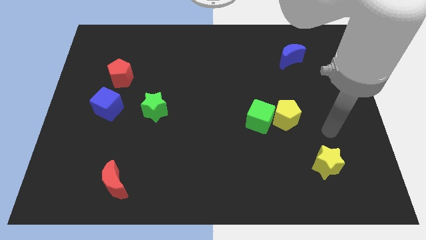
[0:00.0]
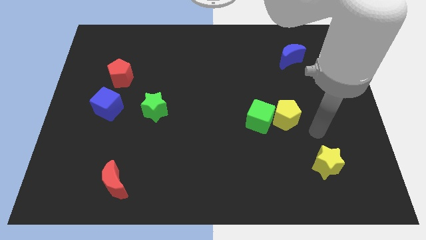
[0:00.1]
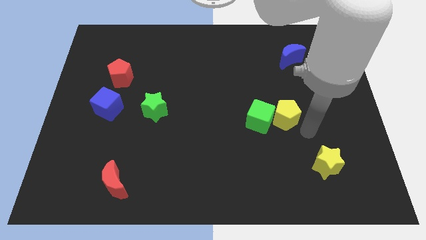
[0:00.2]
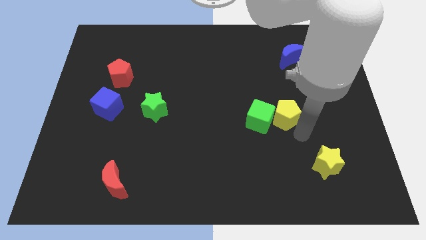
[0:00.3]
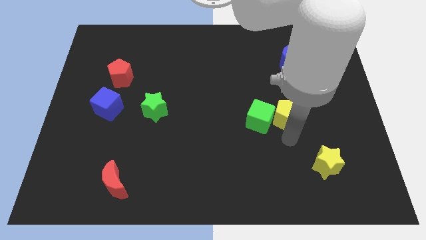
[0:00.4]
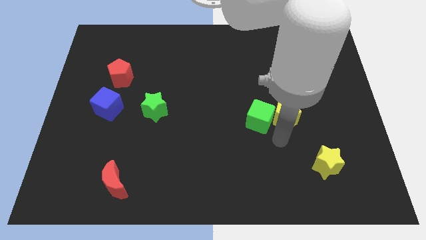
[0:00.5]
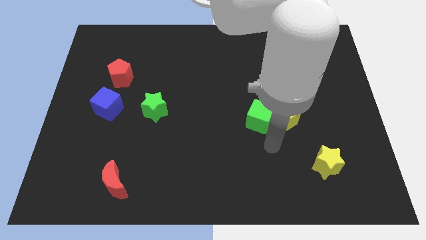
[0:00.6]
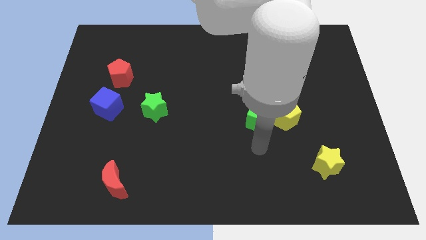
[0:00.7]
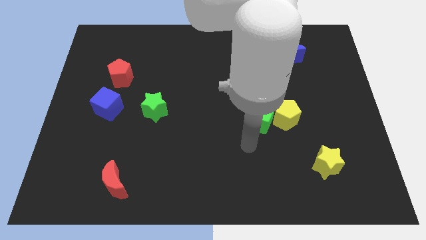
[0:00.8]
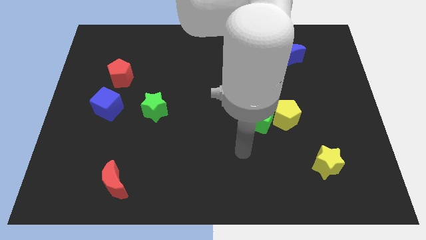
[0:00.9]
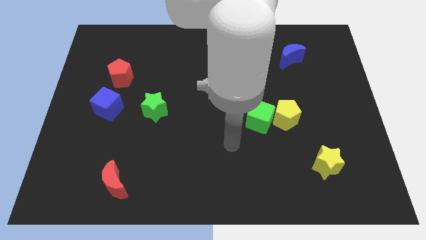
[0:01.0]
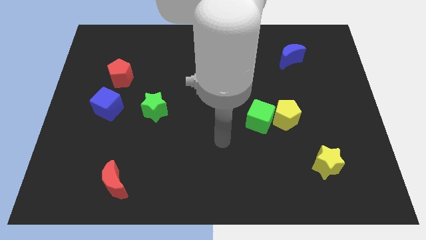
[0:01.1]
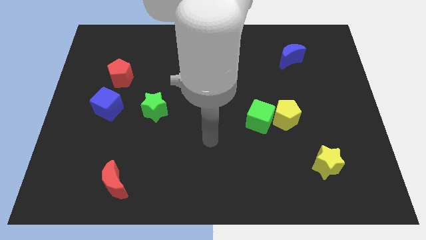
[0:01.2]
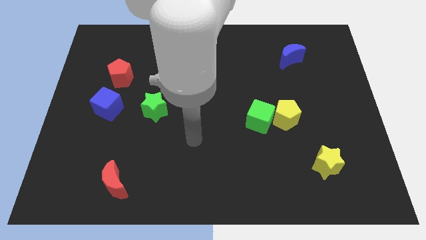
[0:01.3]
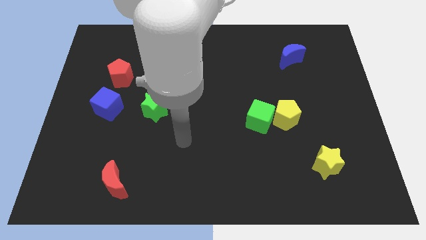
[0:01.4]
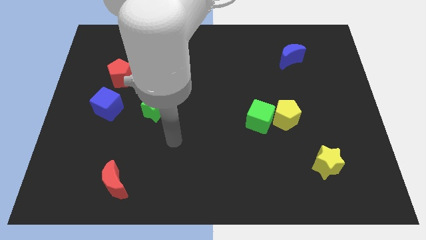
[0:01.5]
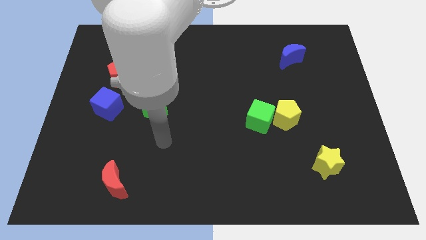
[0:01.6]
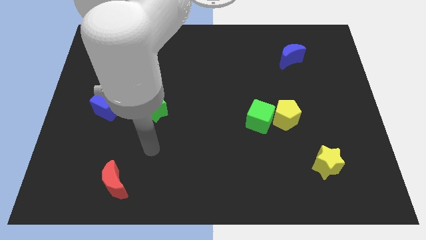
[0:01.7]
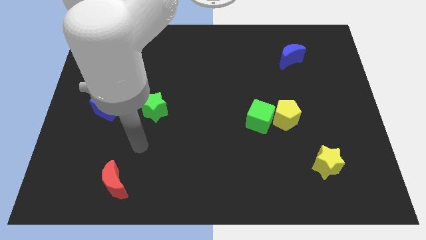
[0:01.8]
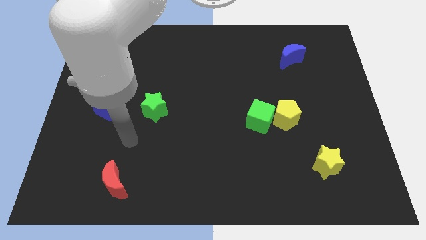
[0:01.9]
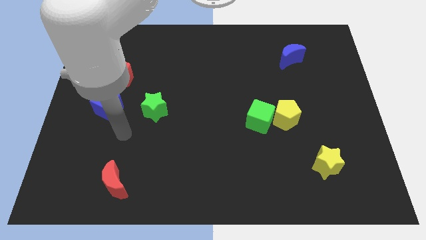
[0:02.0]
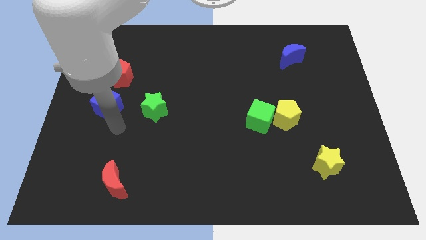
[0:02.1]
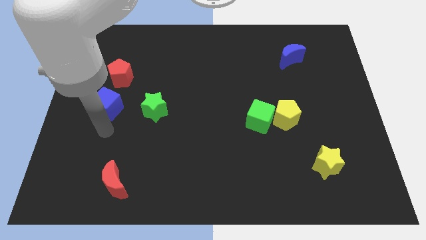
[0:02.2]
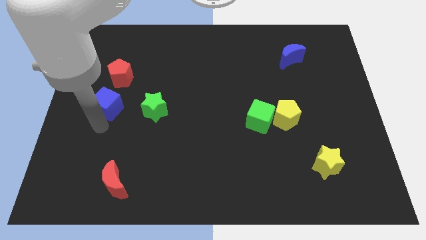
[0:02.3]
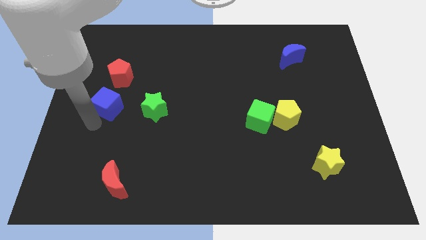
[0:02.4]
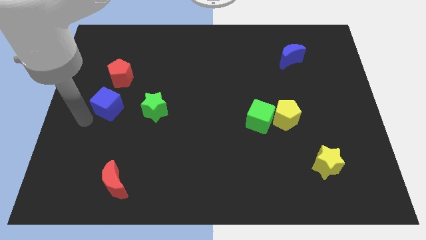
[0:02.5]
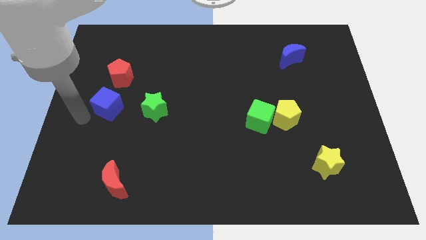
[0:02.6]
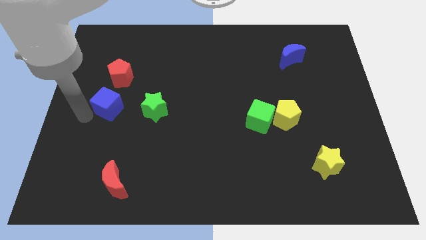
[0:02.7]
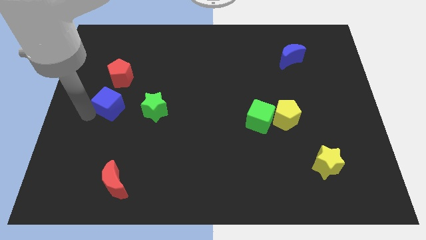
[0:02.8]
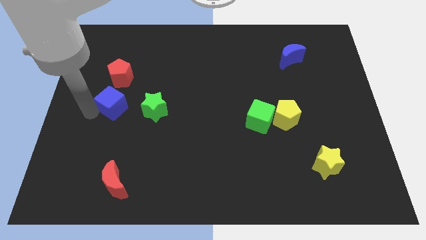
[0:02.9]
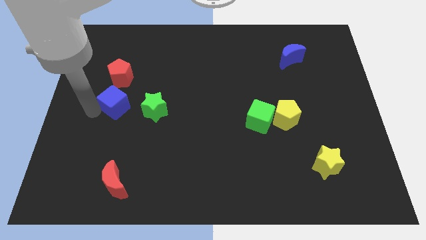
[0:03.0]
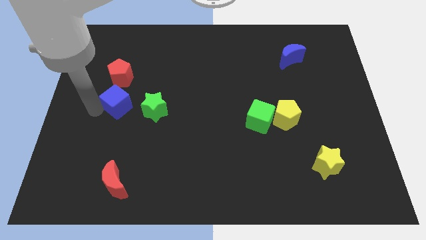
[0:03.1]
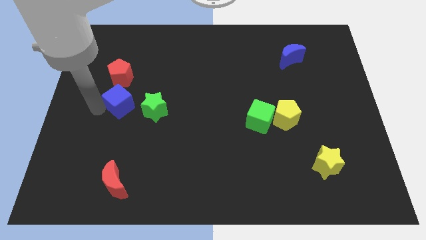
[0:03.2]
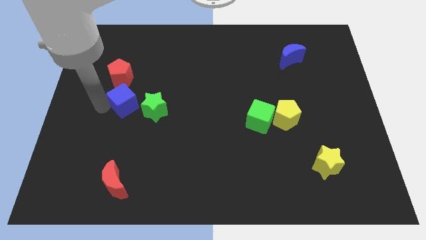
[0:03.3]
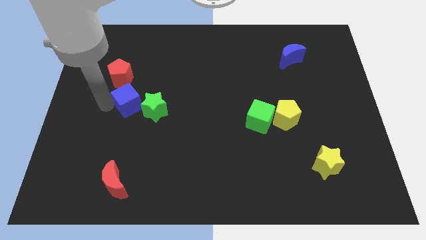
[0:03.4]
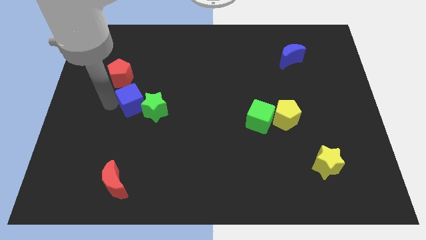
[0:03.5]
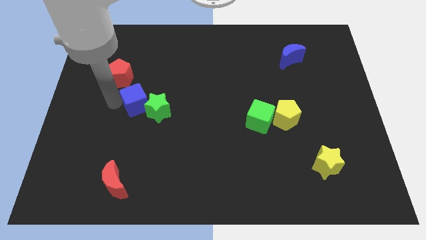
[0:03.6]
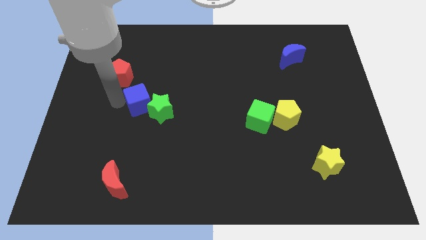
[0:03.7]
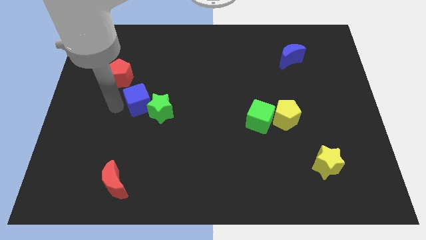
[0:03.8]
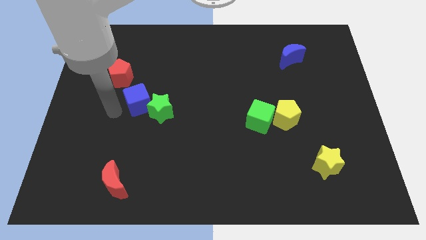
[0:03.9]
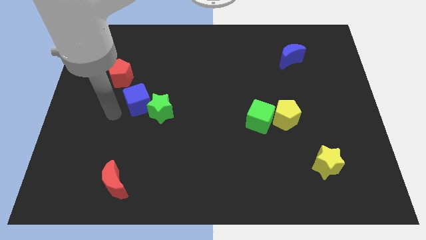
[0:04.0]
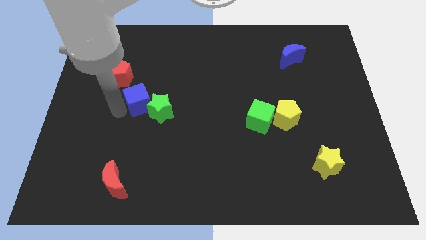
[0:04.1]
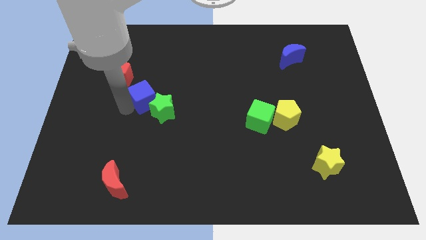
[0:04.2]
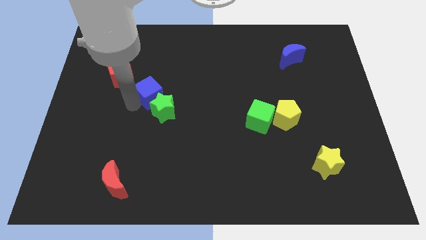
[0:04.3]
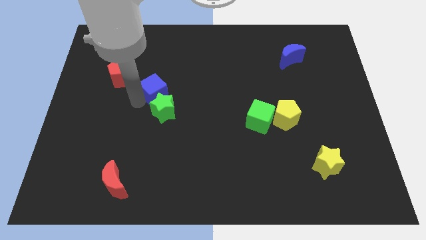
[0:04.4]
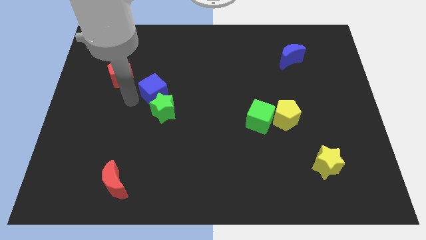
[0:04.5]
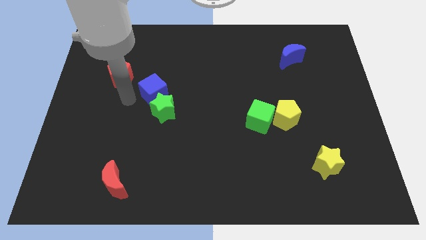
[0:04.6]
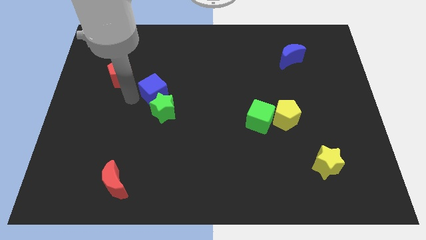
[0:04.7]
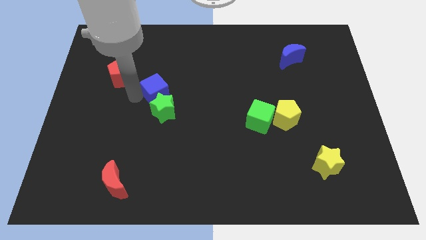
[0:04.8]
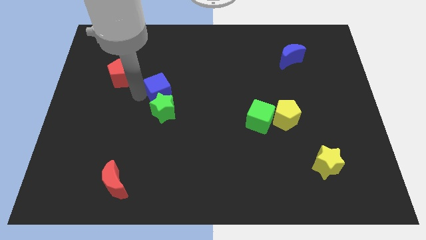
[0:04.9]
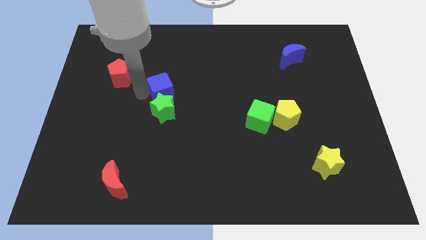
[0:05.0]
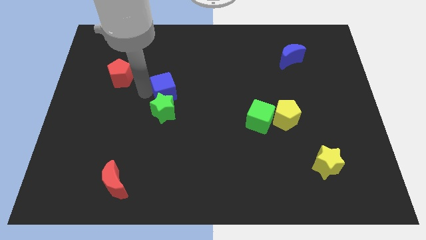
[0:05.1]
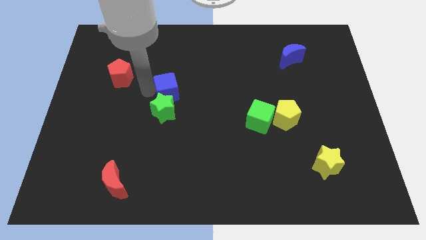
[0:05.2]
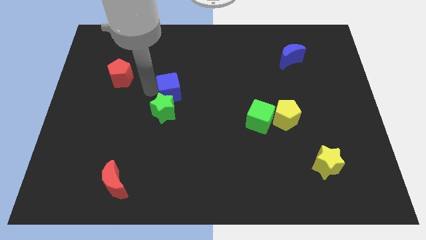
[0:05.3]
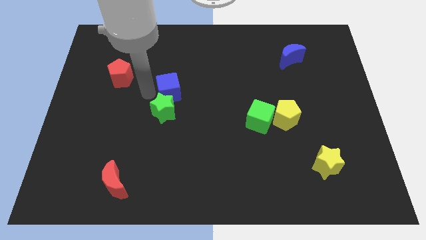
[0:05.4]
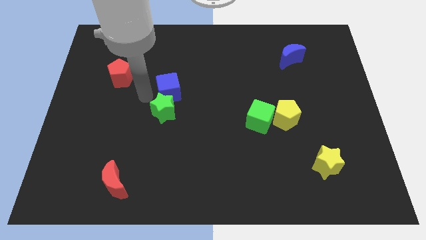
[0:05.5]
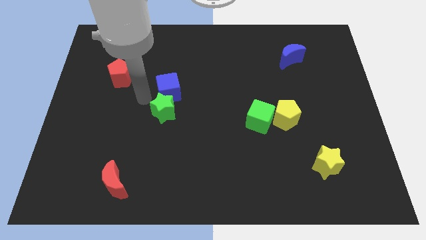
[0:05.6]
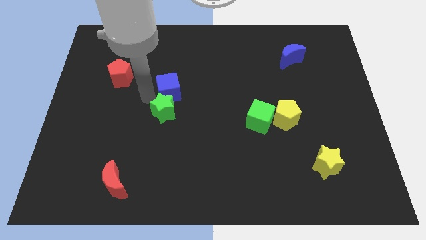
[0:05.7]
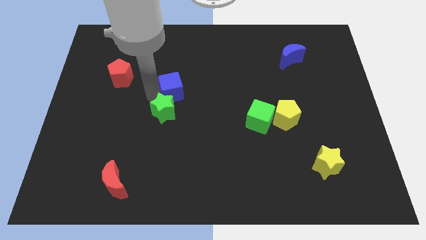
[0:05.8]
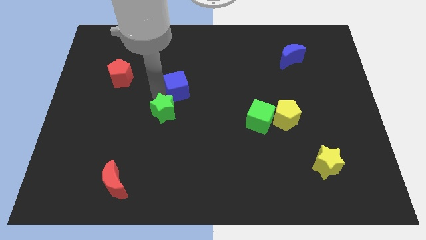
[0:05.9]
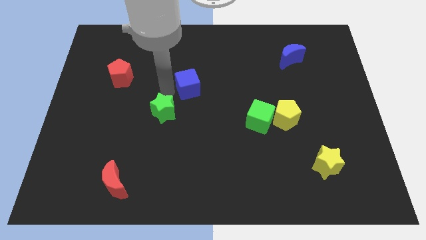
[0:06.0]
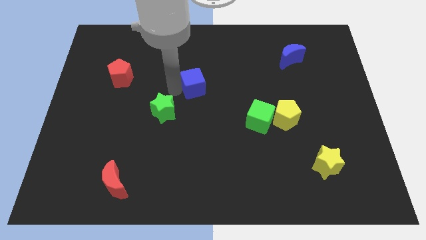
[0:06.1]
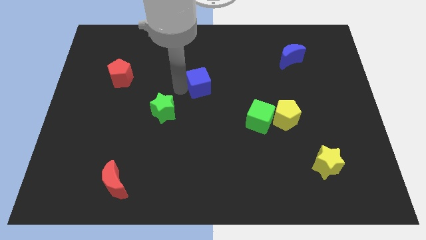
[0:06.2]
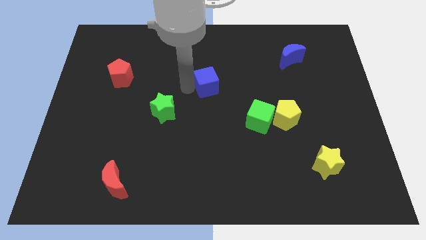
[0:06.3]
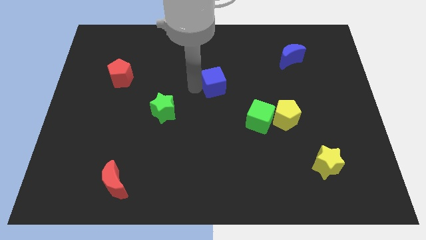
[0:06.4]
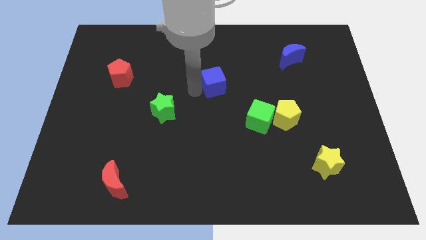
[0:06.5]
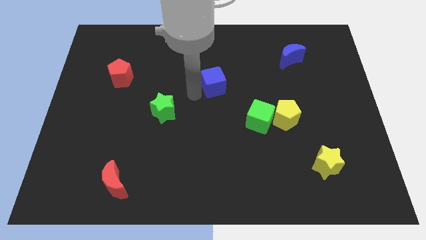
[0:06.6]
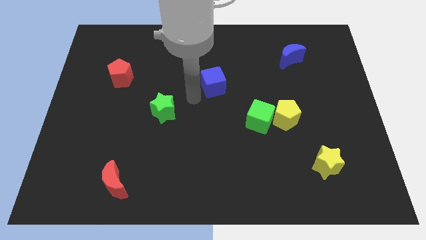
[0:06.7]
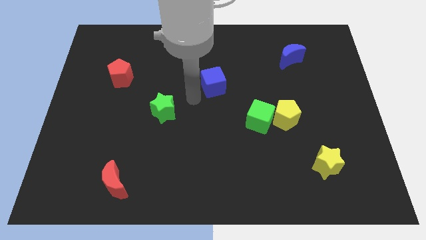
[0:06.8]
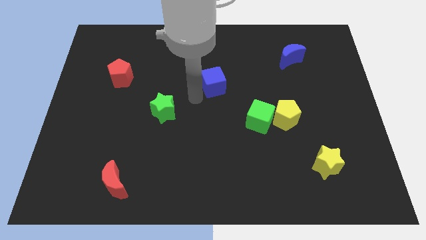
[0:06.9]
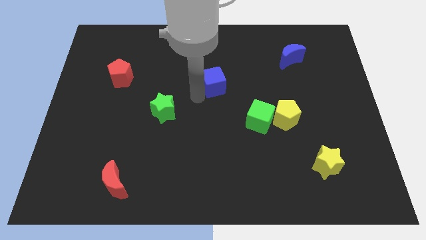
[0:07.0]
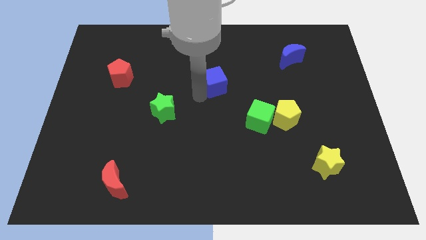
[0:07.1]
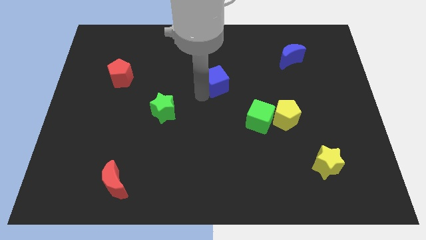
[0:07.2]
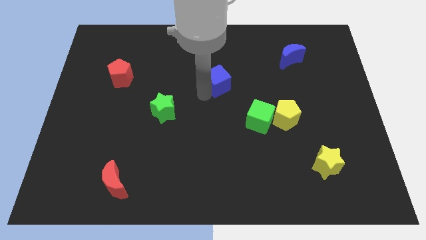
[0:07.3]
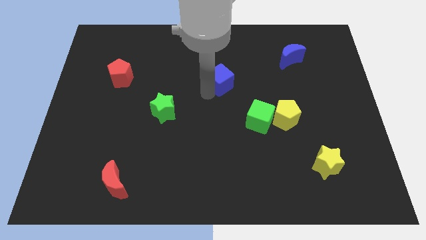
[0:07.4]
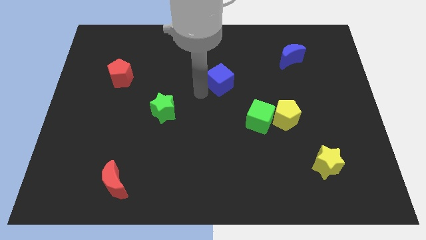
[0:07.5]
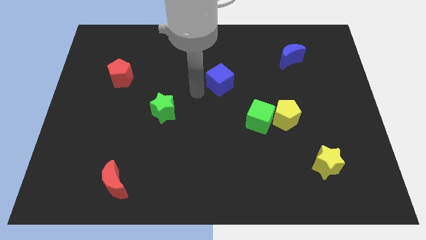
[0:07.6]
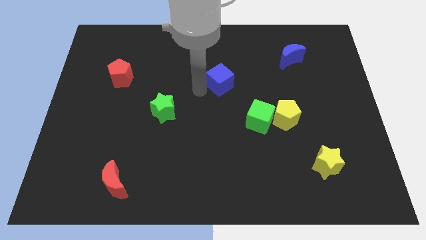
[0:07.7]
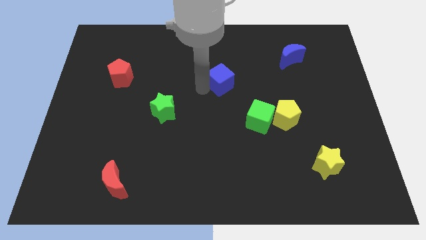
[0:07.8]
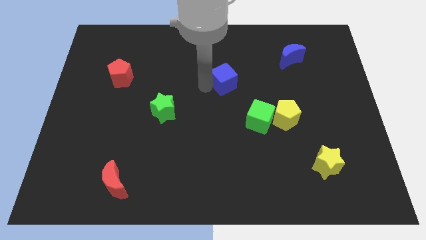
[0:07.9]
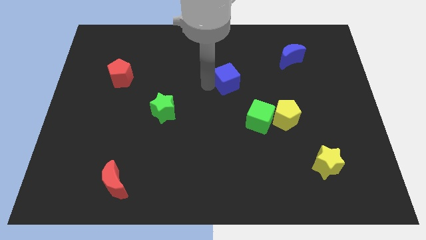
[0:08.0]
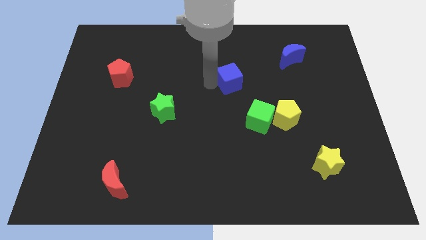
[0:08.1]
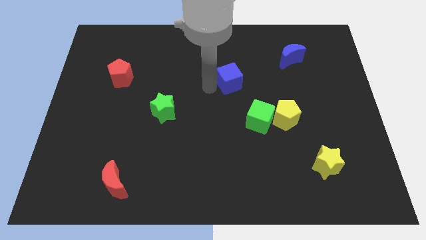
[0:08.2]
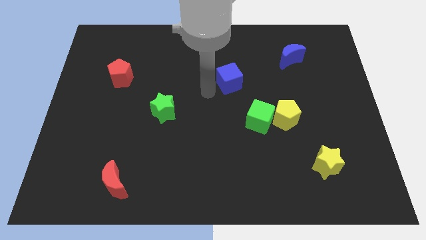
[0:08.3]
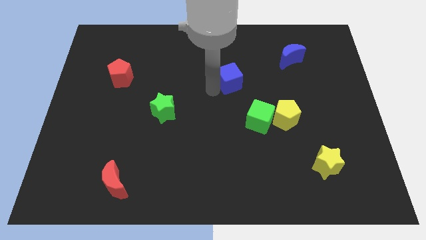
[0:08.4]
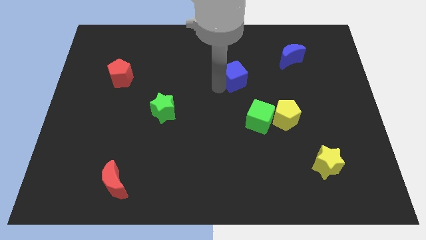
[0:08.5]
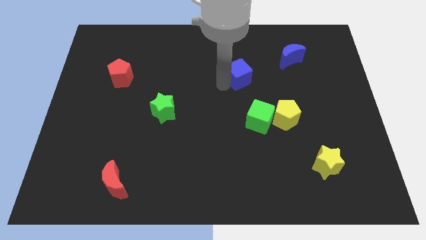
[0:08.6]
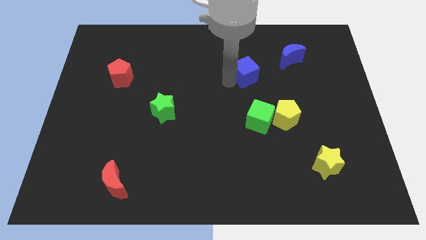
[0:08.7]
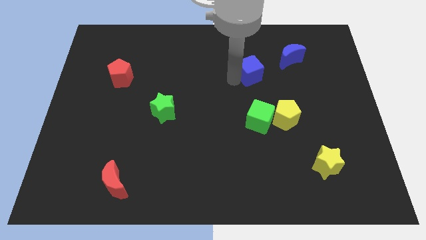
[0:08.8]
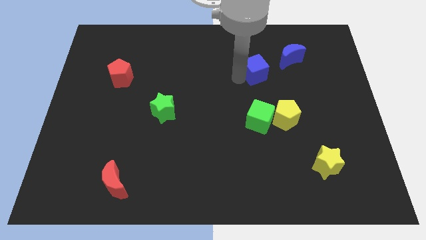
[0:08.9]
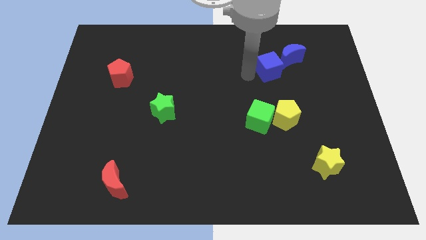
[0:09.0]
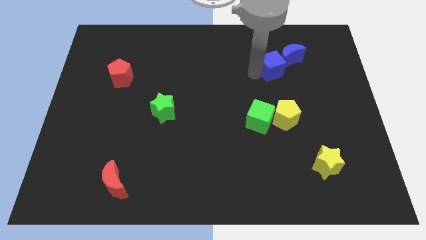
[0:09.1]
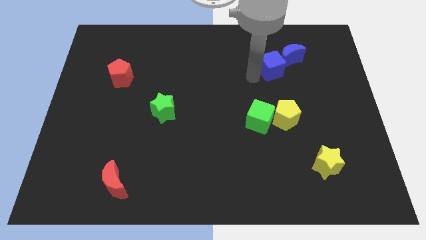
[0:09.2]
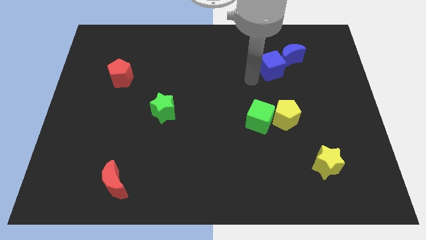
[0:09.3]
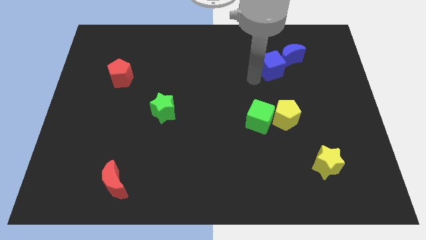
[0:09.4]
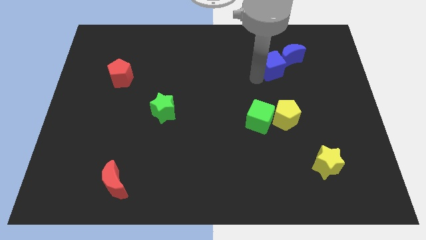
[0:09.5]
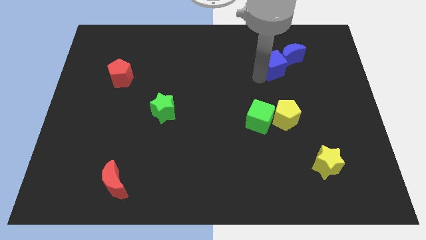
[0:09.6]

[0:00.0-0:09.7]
push the blue cube close to the blue moon
